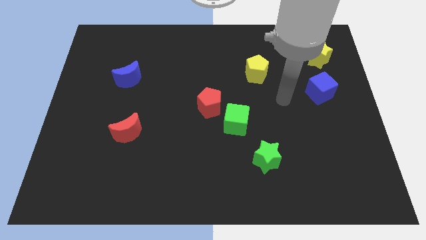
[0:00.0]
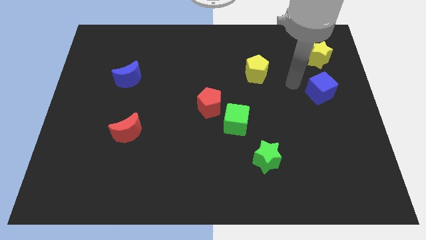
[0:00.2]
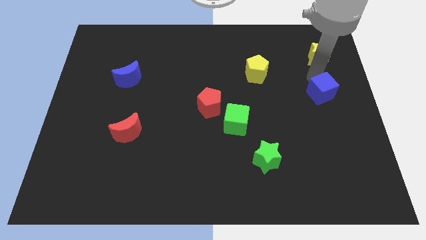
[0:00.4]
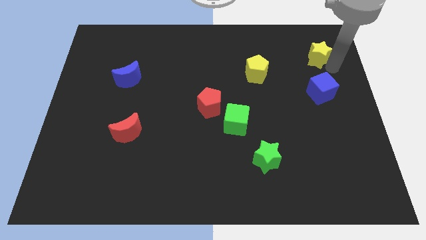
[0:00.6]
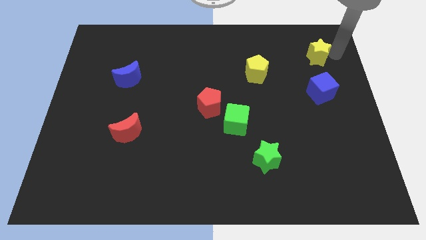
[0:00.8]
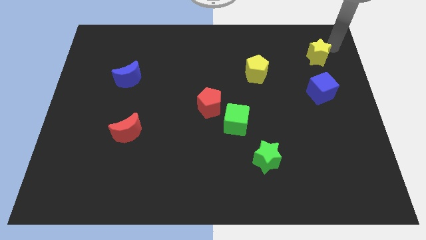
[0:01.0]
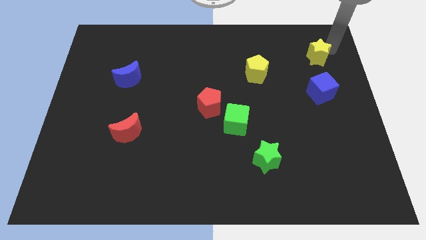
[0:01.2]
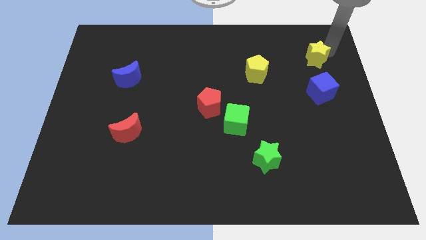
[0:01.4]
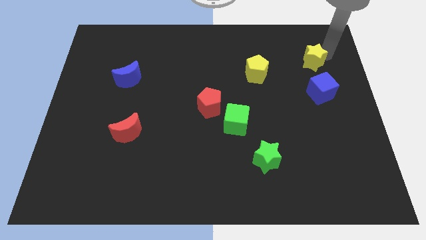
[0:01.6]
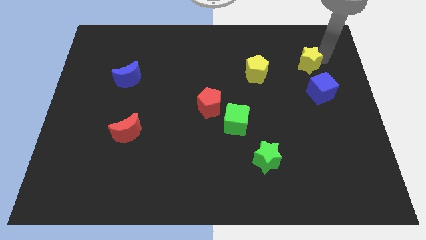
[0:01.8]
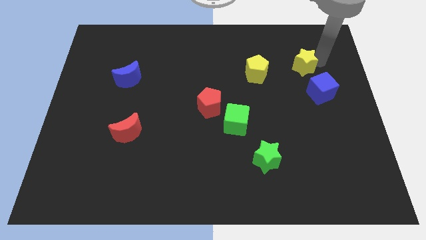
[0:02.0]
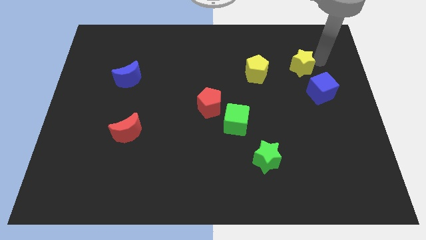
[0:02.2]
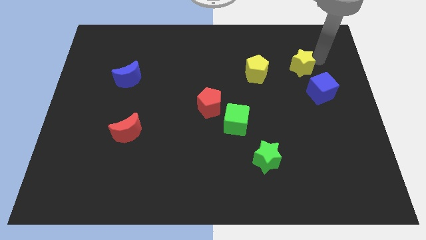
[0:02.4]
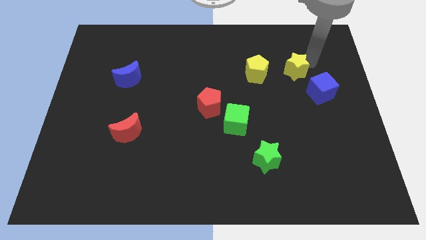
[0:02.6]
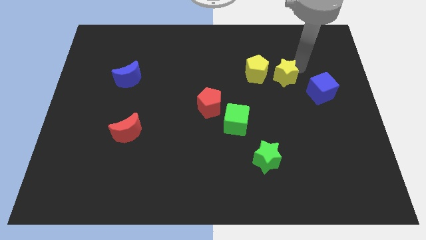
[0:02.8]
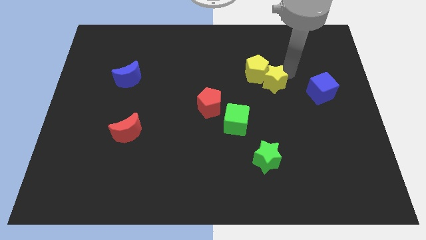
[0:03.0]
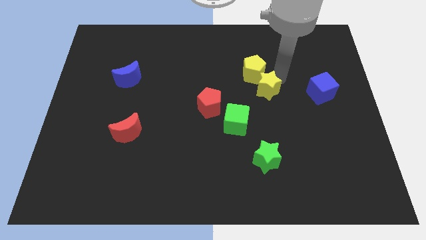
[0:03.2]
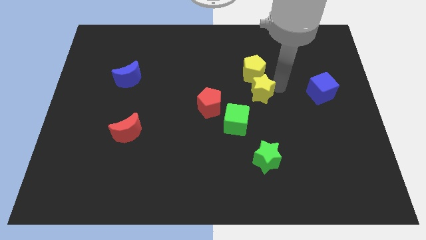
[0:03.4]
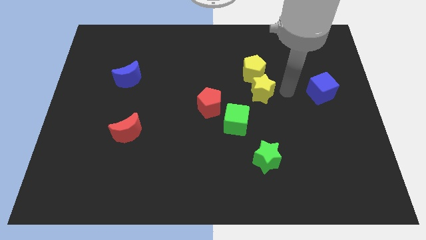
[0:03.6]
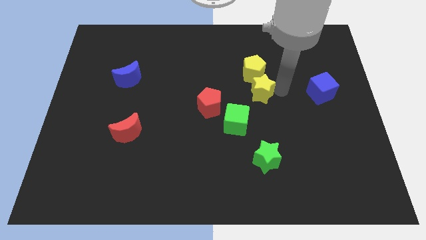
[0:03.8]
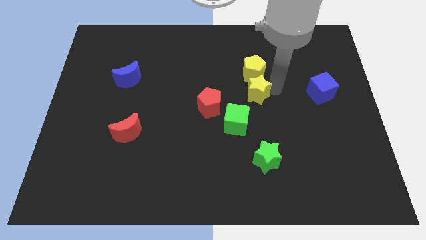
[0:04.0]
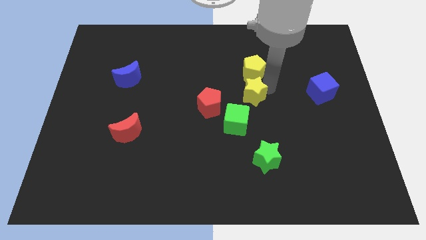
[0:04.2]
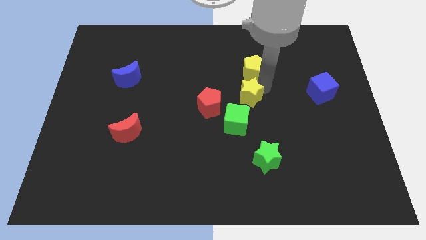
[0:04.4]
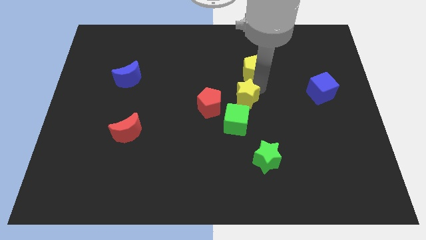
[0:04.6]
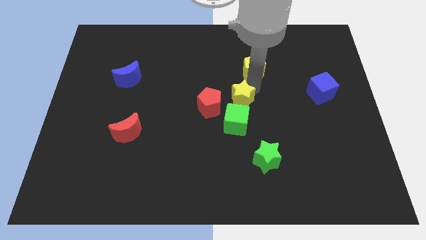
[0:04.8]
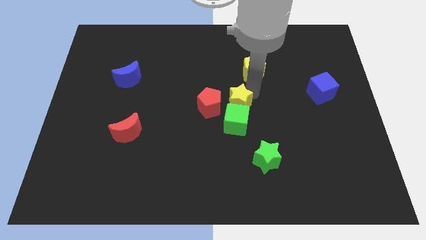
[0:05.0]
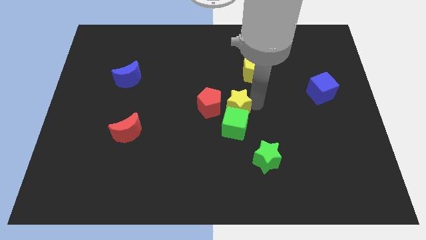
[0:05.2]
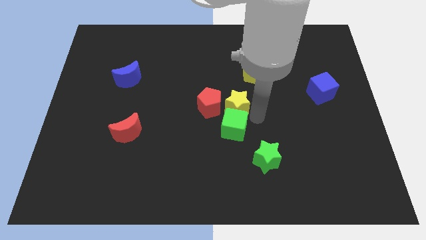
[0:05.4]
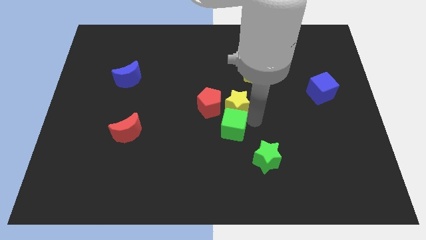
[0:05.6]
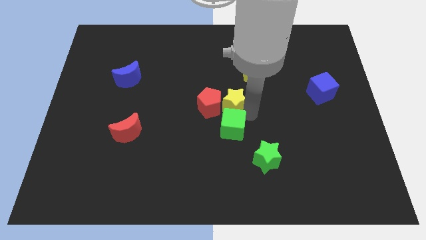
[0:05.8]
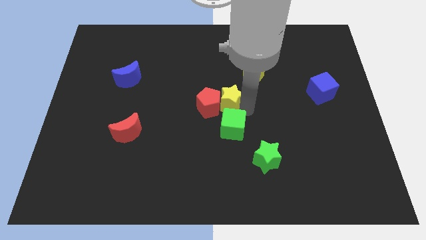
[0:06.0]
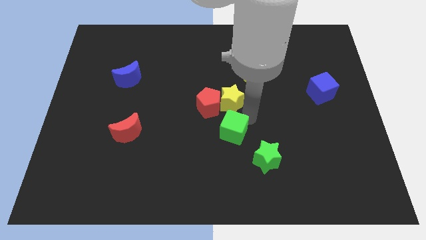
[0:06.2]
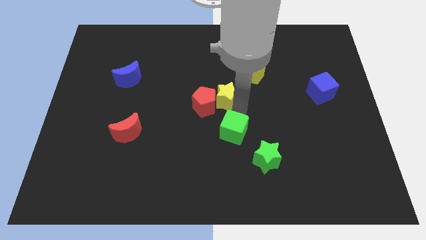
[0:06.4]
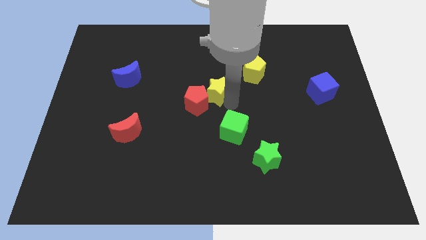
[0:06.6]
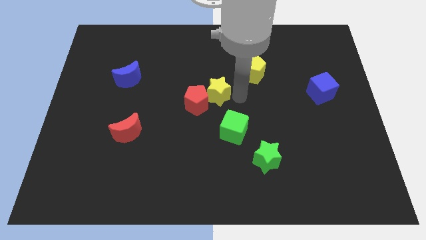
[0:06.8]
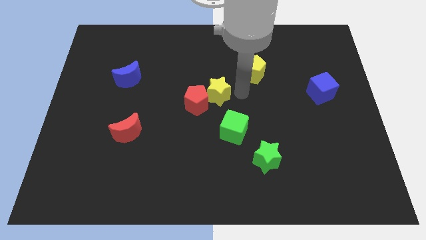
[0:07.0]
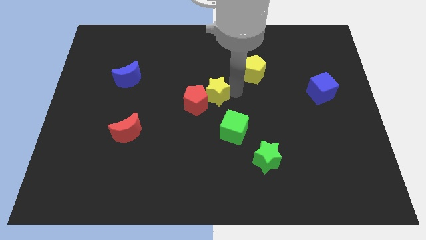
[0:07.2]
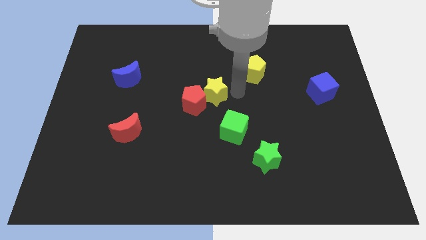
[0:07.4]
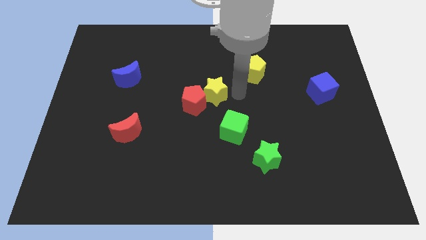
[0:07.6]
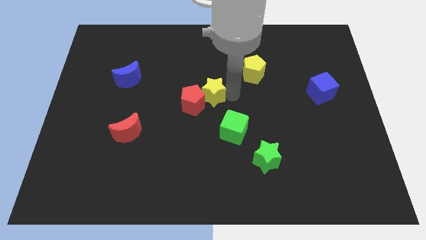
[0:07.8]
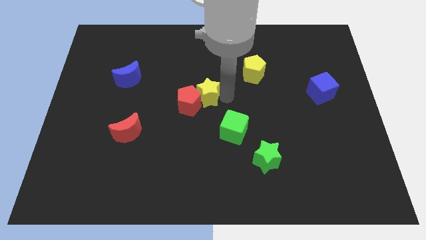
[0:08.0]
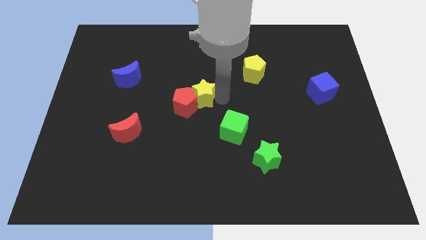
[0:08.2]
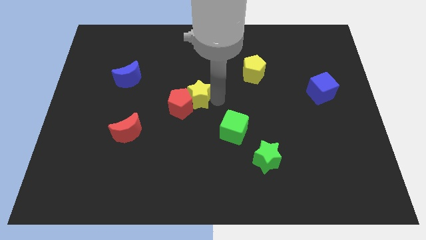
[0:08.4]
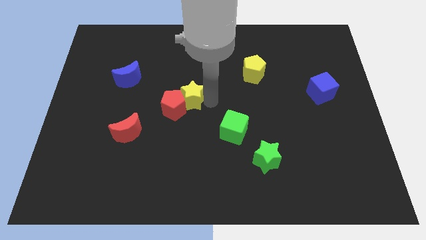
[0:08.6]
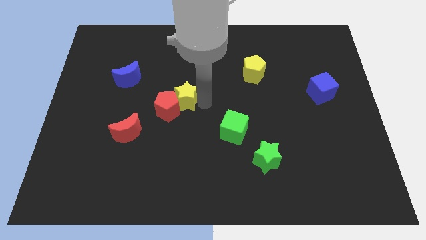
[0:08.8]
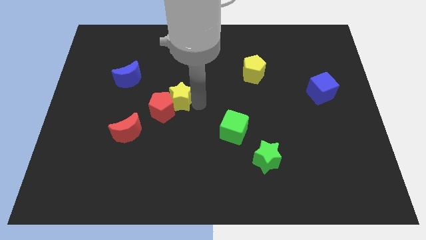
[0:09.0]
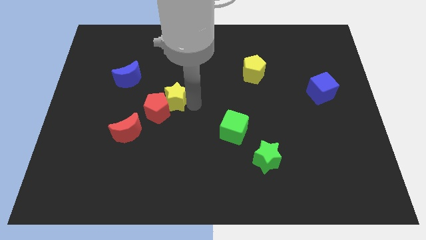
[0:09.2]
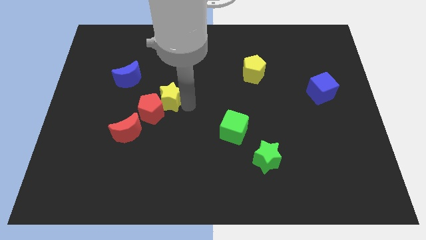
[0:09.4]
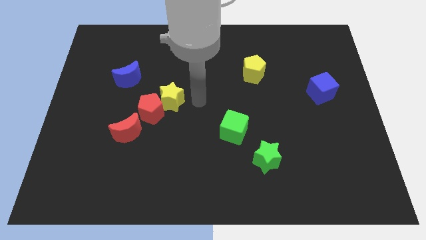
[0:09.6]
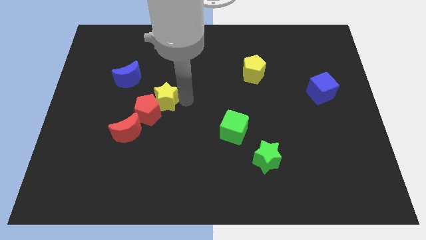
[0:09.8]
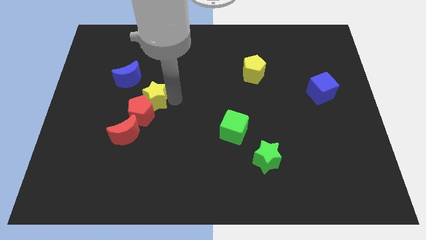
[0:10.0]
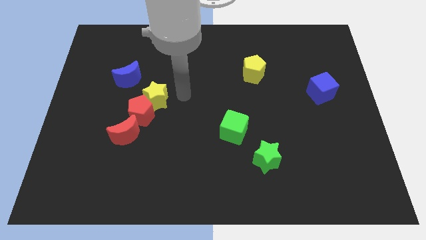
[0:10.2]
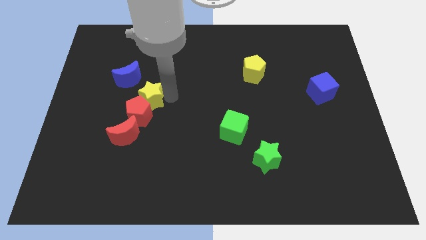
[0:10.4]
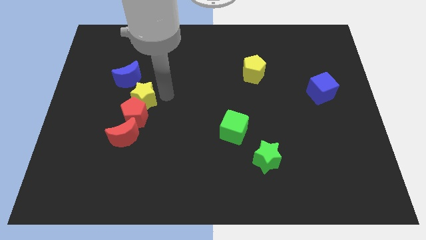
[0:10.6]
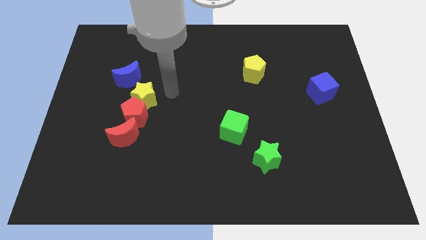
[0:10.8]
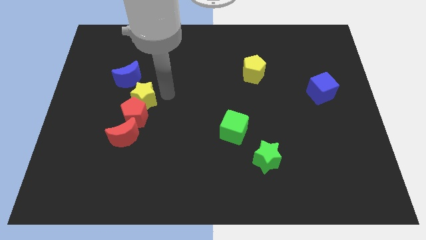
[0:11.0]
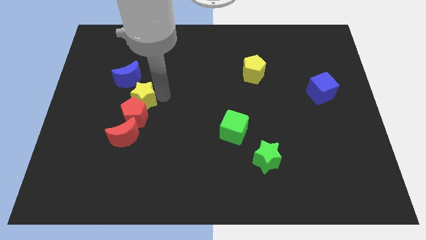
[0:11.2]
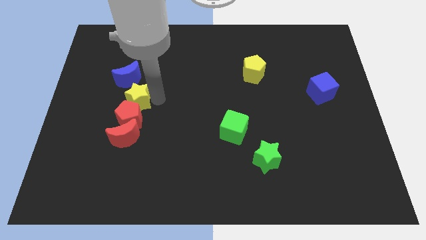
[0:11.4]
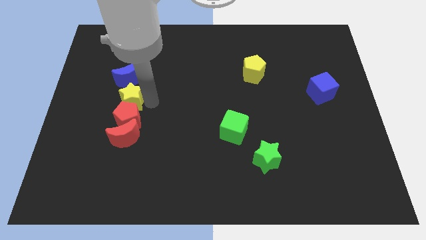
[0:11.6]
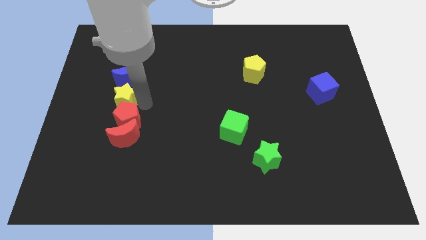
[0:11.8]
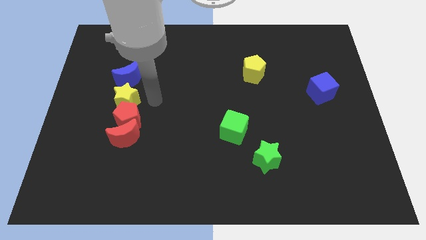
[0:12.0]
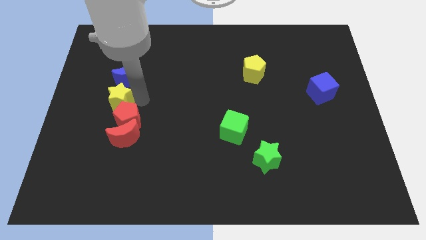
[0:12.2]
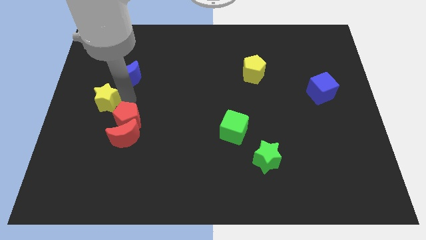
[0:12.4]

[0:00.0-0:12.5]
put the yellow star to the left side of the board

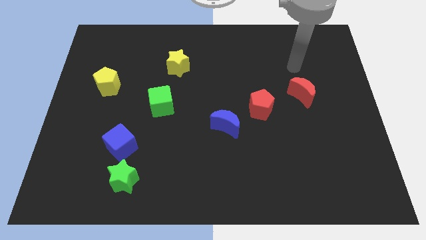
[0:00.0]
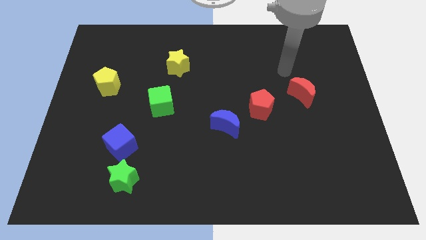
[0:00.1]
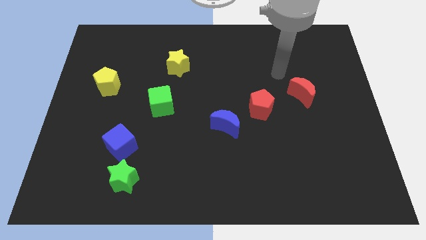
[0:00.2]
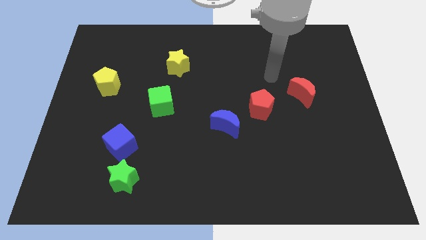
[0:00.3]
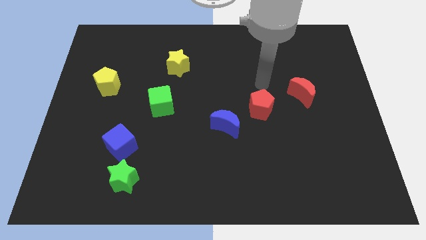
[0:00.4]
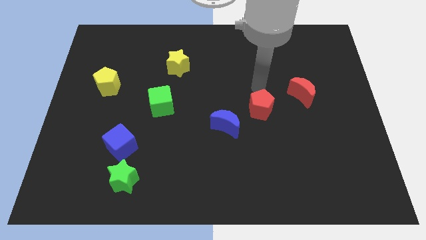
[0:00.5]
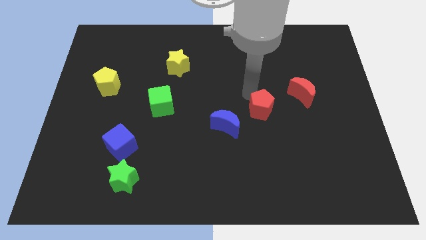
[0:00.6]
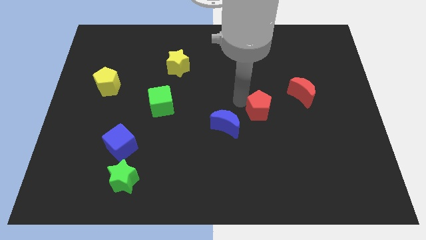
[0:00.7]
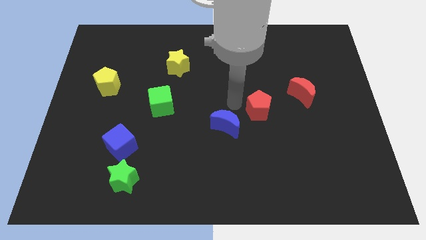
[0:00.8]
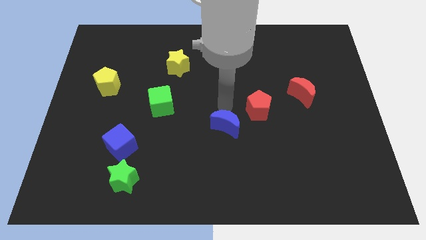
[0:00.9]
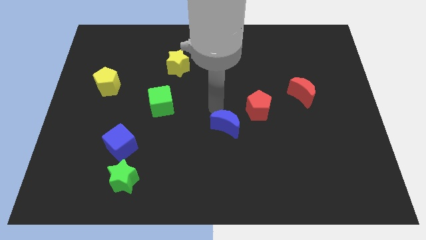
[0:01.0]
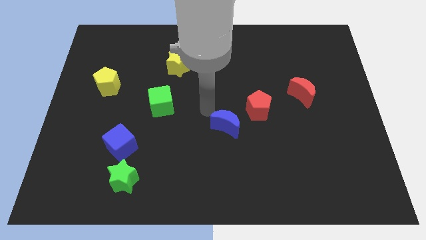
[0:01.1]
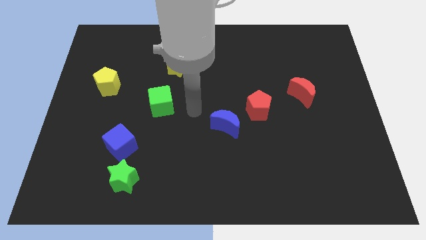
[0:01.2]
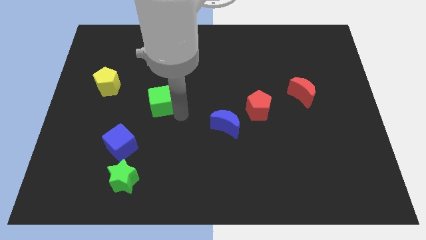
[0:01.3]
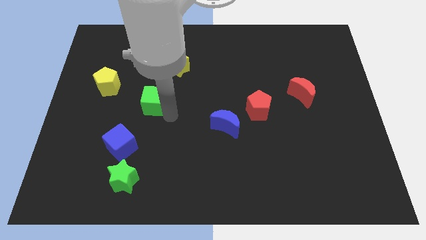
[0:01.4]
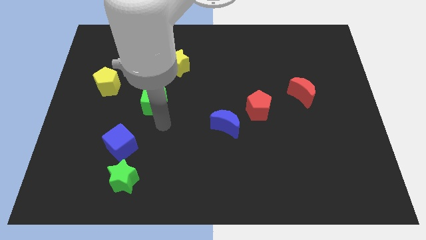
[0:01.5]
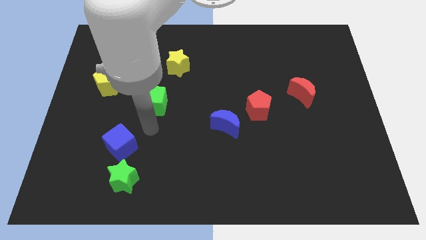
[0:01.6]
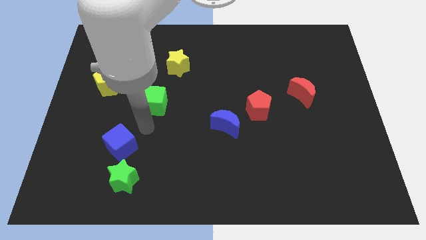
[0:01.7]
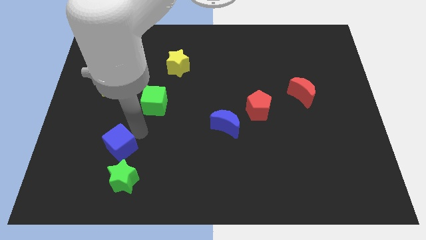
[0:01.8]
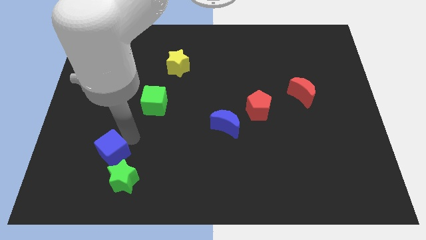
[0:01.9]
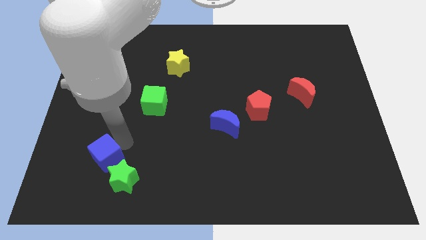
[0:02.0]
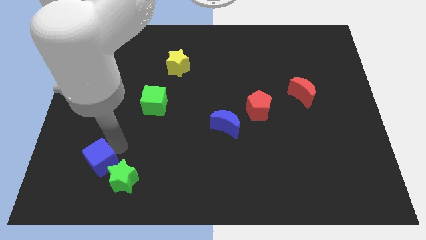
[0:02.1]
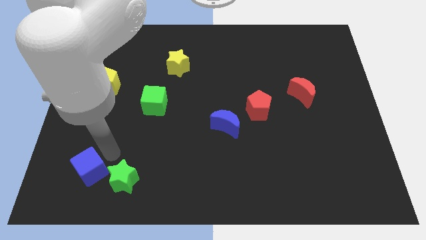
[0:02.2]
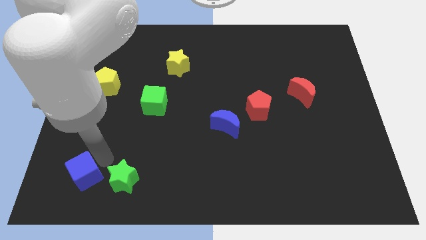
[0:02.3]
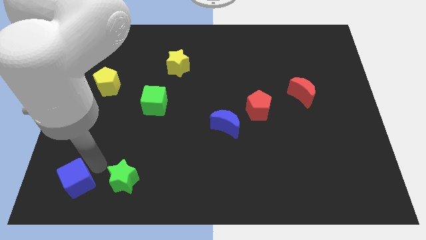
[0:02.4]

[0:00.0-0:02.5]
put the blue cube to the bottom left corner
